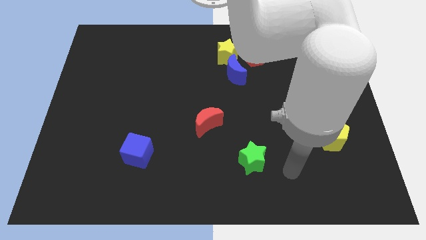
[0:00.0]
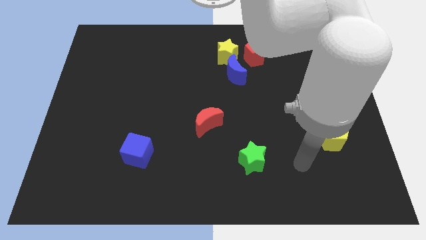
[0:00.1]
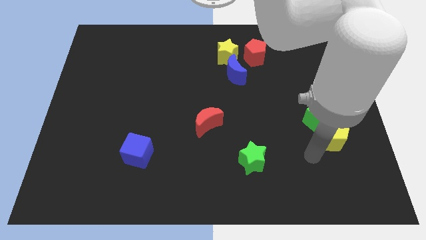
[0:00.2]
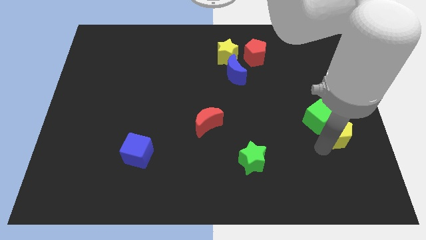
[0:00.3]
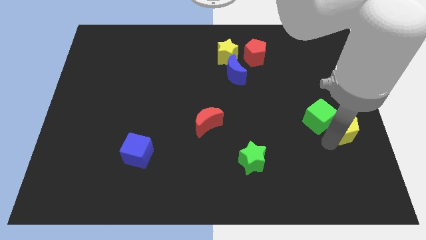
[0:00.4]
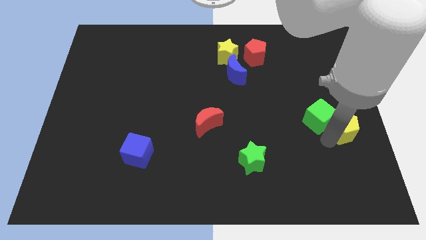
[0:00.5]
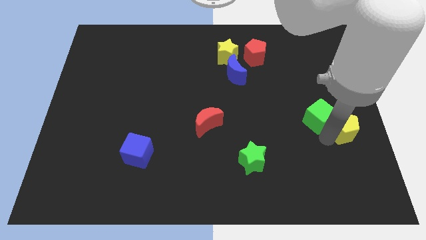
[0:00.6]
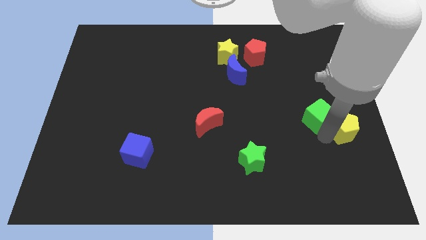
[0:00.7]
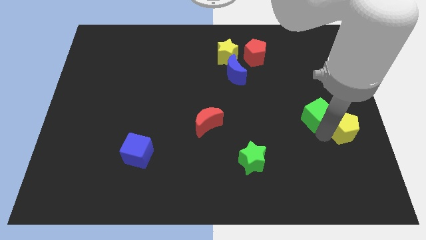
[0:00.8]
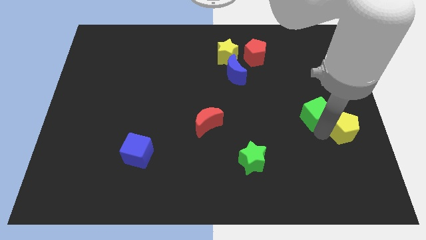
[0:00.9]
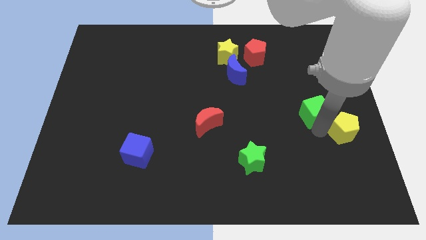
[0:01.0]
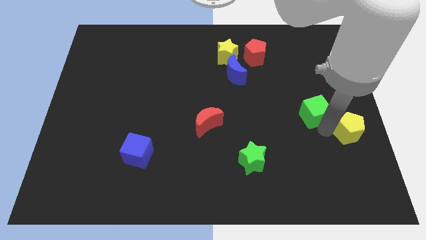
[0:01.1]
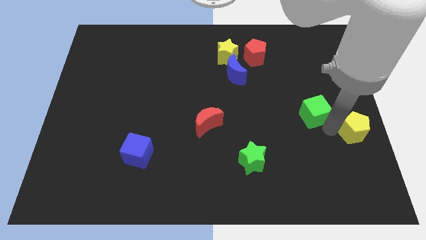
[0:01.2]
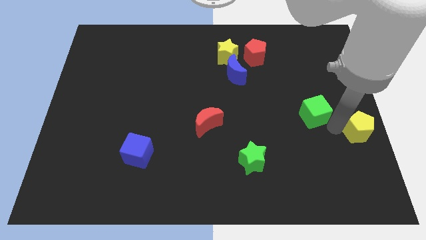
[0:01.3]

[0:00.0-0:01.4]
pull the green cube apart from the yellow pentagon

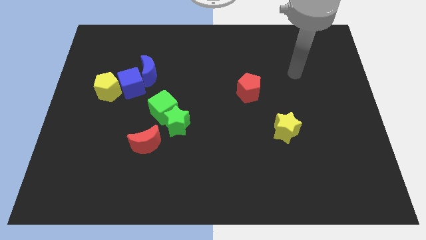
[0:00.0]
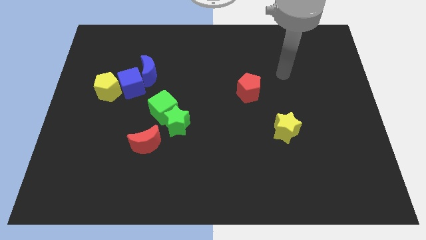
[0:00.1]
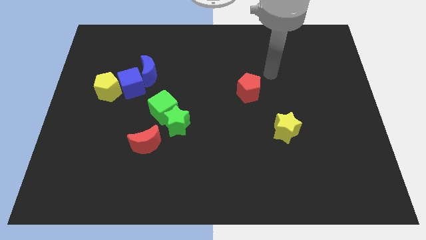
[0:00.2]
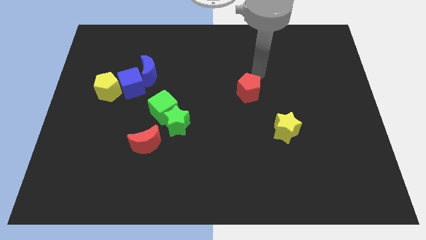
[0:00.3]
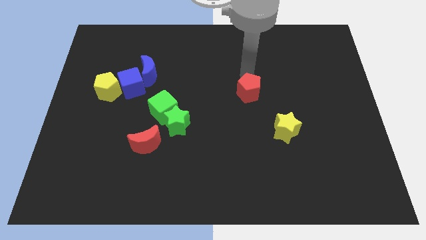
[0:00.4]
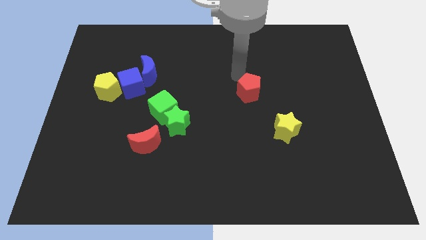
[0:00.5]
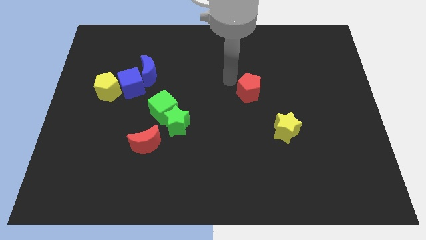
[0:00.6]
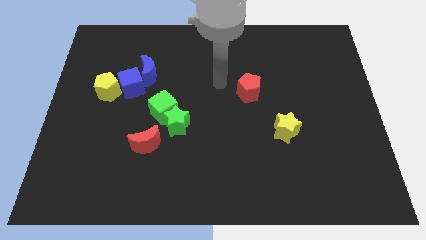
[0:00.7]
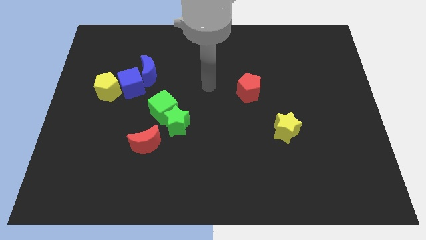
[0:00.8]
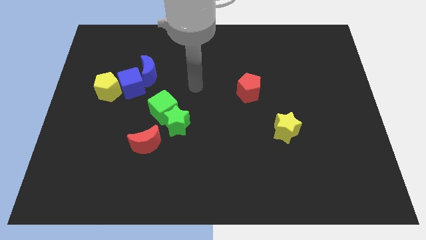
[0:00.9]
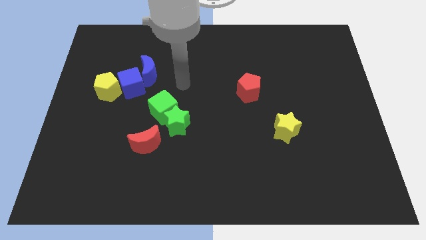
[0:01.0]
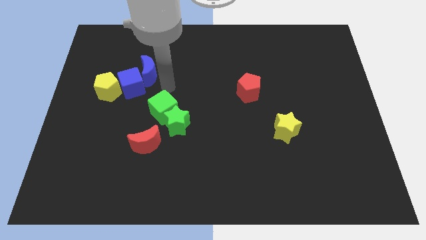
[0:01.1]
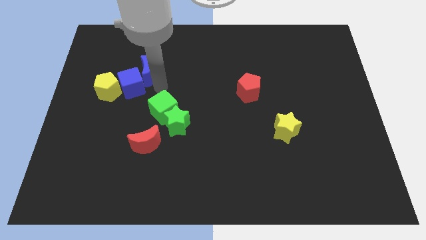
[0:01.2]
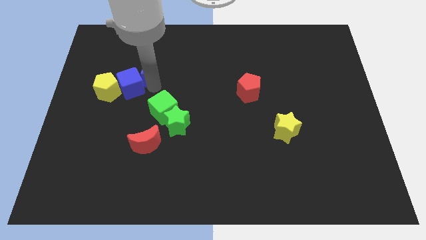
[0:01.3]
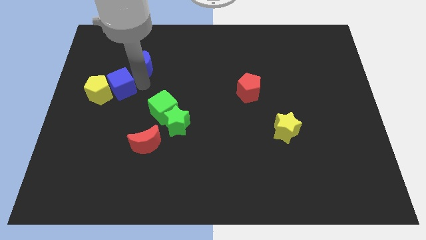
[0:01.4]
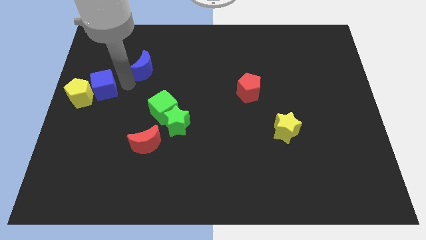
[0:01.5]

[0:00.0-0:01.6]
separate the blue moon from the blue cube

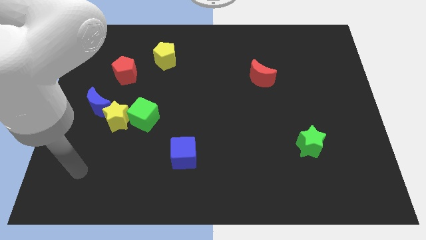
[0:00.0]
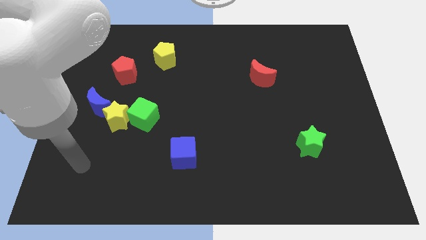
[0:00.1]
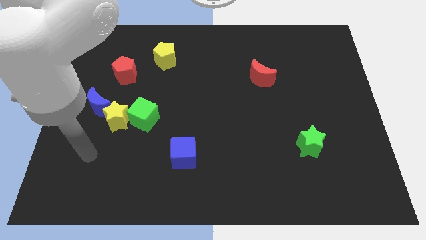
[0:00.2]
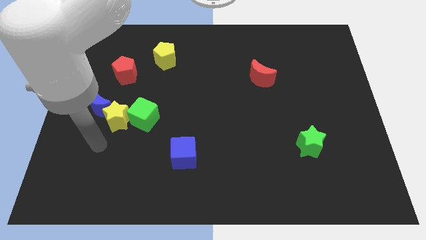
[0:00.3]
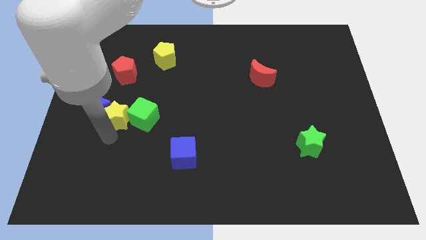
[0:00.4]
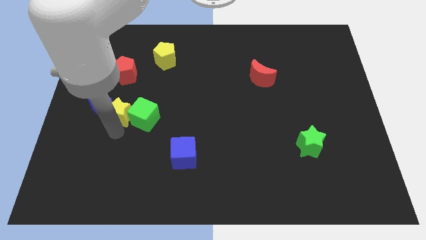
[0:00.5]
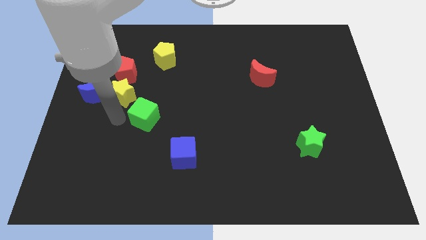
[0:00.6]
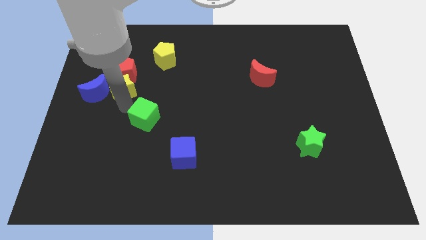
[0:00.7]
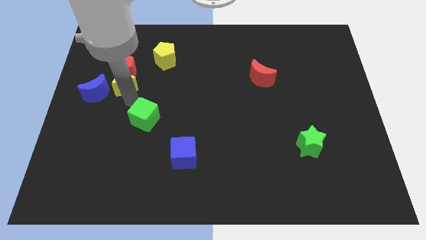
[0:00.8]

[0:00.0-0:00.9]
move the green cube away from the yellow star

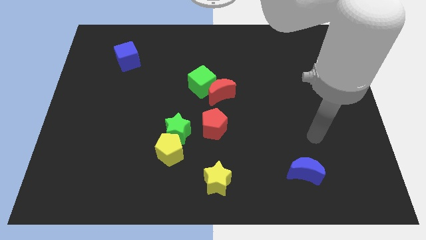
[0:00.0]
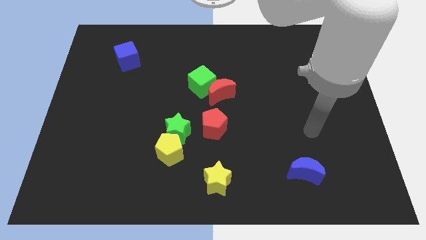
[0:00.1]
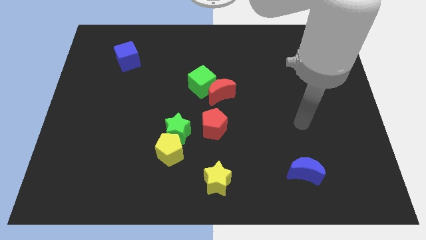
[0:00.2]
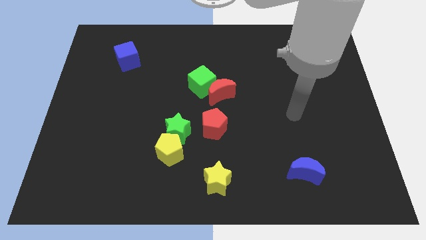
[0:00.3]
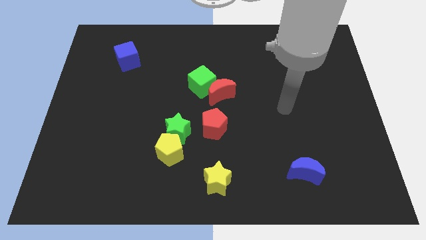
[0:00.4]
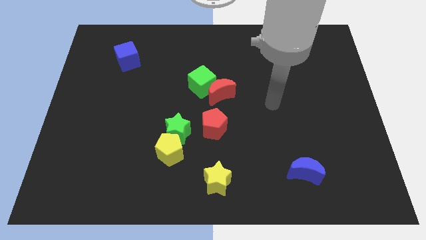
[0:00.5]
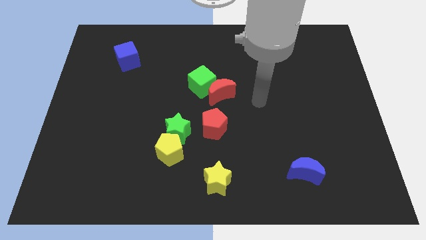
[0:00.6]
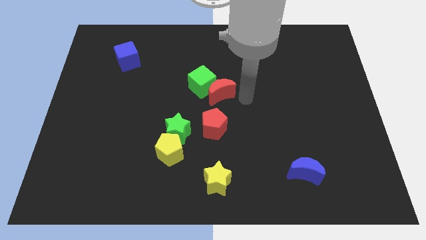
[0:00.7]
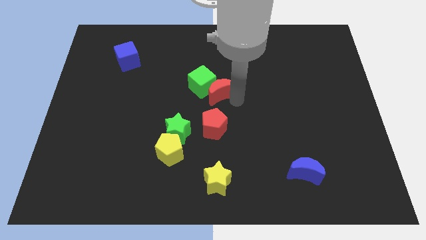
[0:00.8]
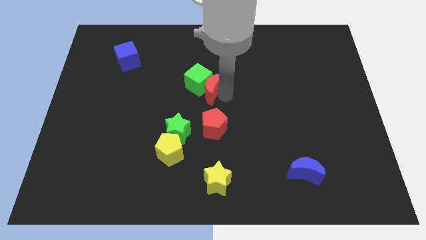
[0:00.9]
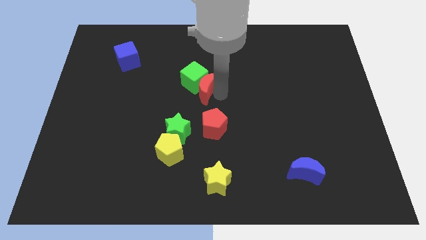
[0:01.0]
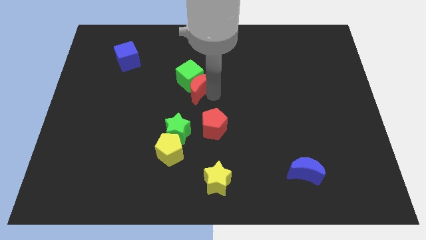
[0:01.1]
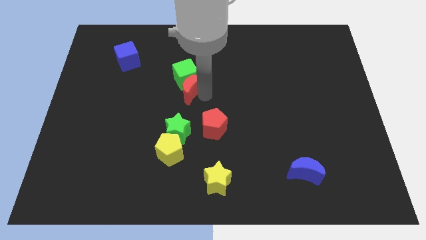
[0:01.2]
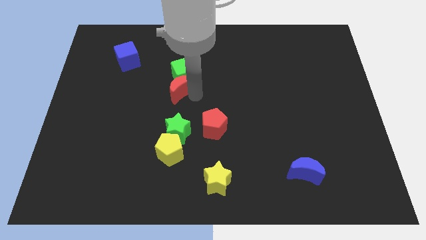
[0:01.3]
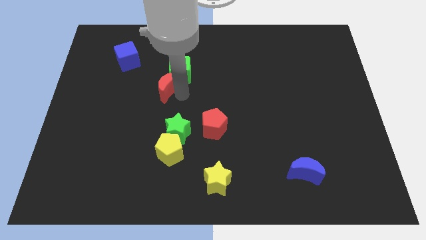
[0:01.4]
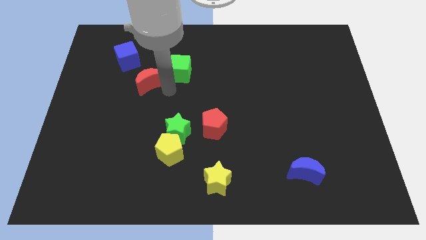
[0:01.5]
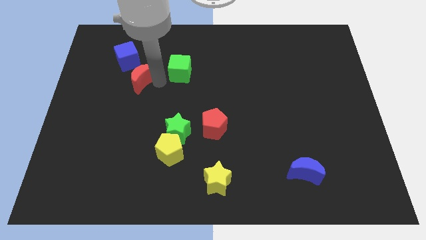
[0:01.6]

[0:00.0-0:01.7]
separate the green cube from the red moon

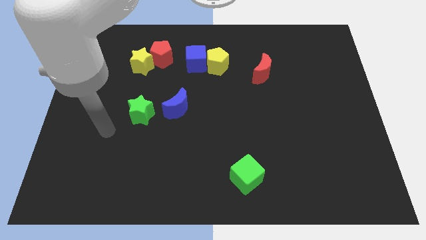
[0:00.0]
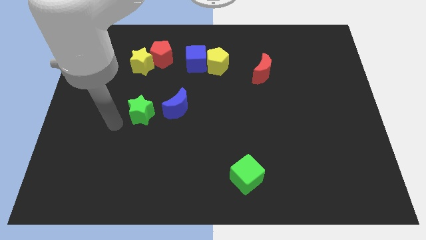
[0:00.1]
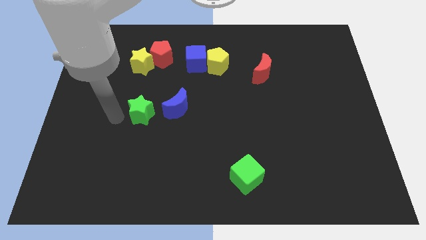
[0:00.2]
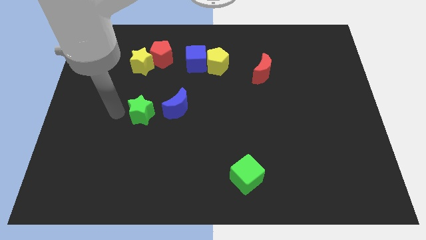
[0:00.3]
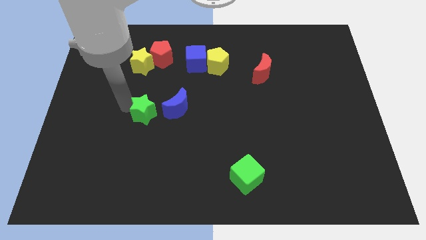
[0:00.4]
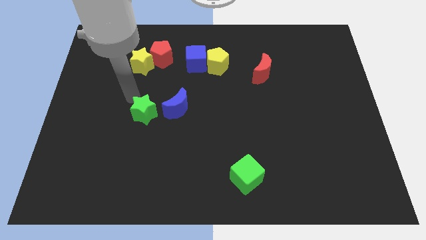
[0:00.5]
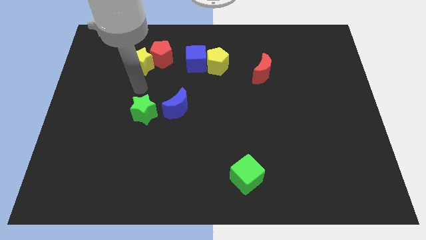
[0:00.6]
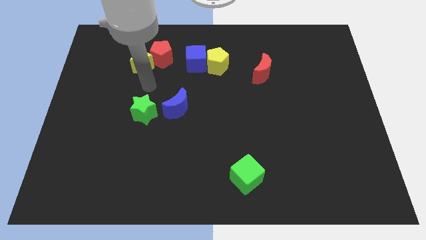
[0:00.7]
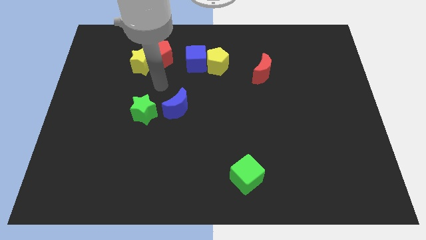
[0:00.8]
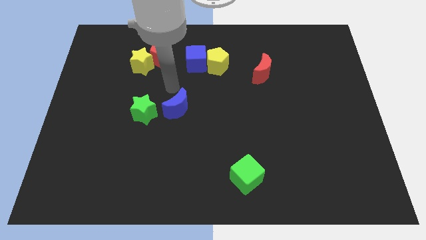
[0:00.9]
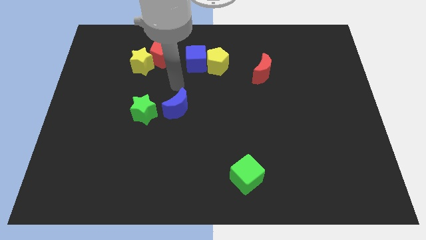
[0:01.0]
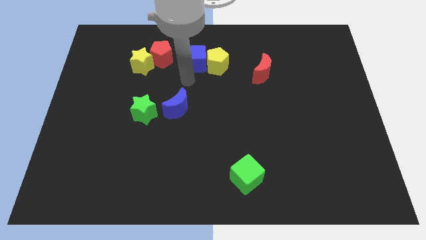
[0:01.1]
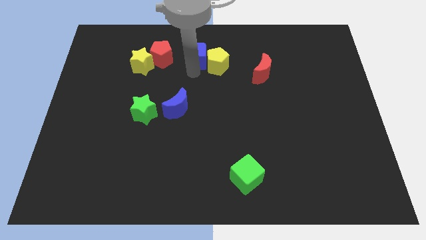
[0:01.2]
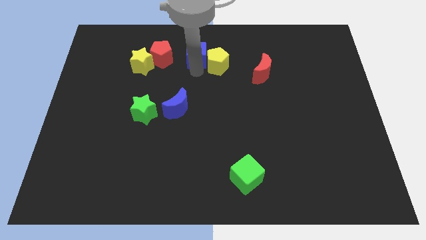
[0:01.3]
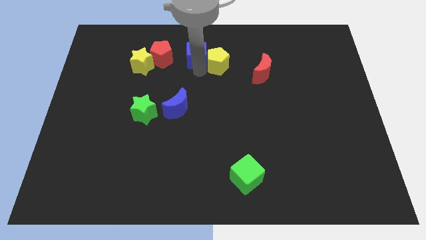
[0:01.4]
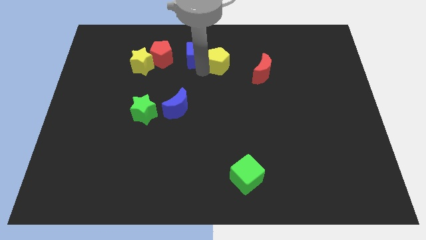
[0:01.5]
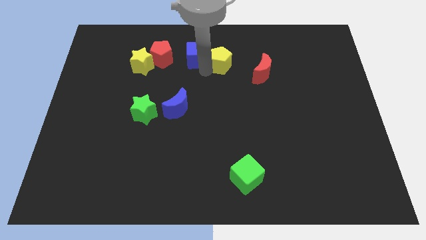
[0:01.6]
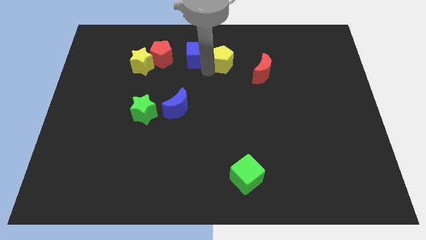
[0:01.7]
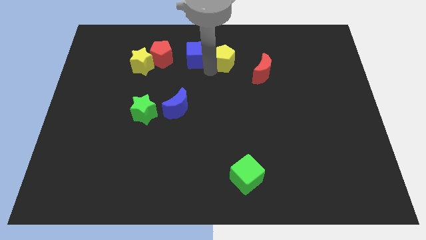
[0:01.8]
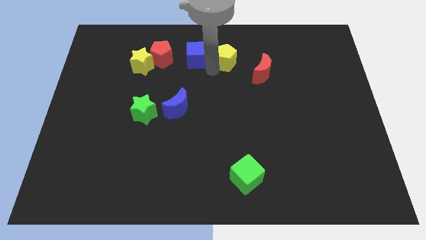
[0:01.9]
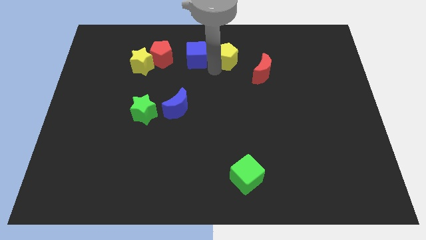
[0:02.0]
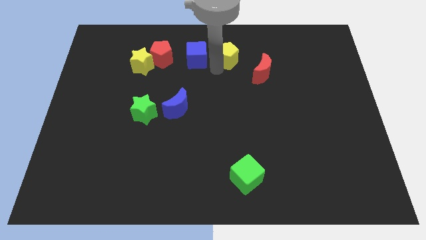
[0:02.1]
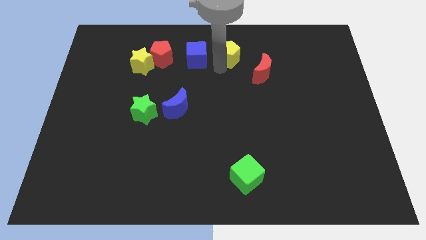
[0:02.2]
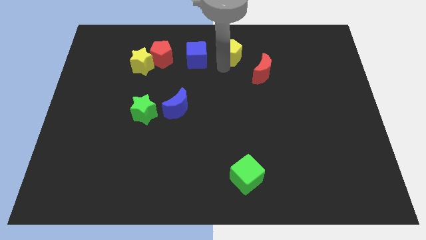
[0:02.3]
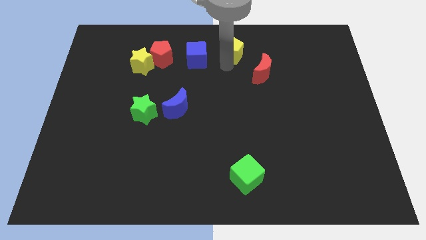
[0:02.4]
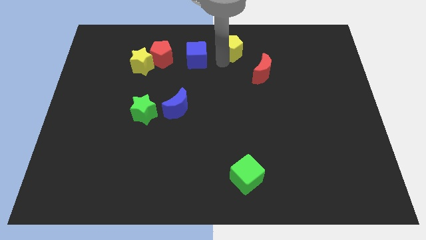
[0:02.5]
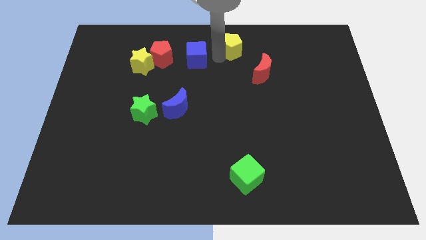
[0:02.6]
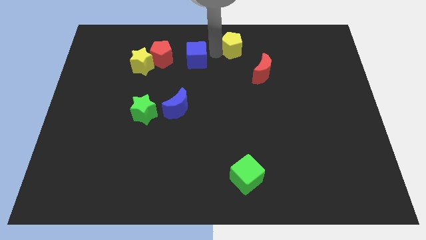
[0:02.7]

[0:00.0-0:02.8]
separate the yellow pentagon from the blue cube

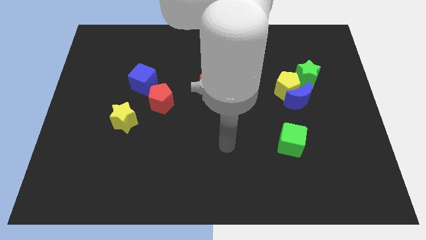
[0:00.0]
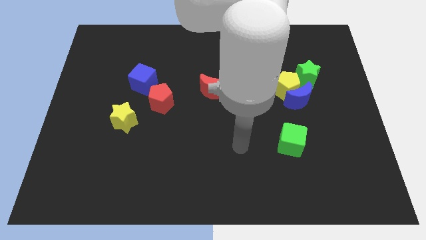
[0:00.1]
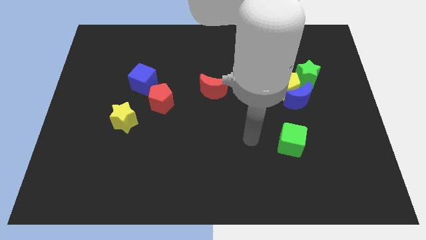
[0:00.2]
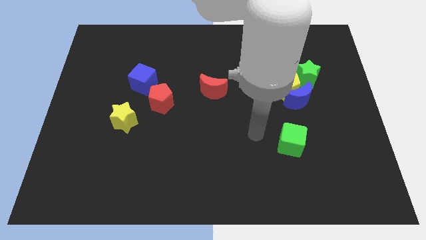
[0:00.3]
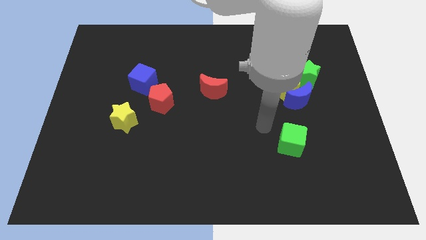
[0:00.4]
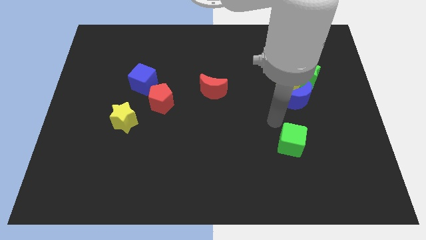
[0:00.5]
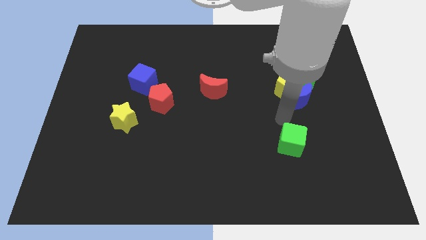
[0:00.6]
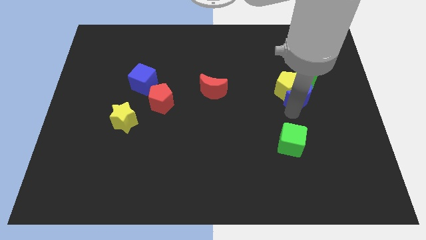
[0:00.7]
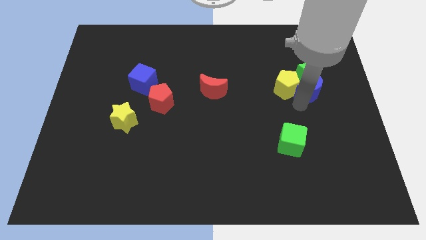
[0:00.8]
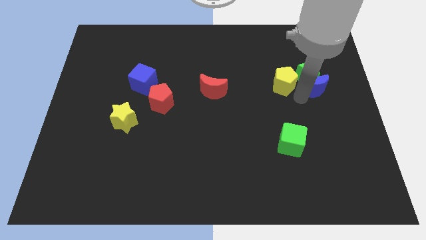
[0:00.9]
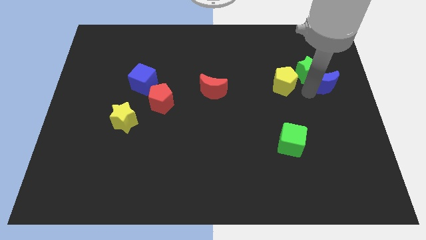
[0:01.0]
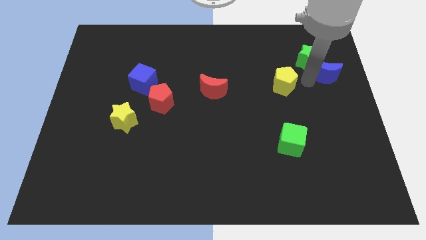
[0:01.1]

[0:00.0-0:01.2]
pull the yellow pentagon apart from the blue moon and green star
